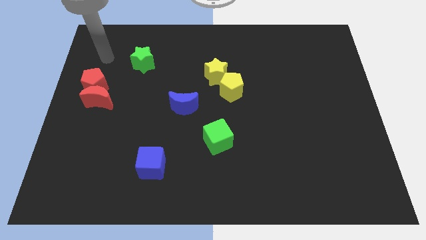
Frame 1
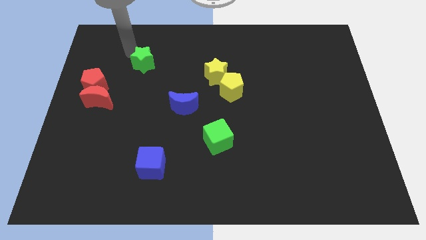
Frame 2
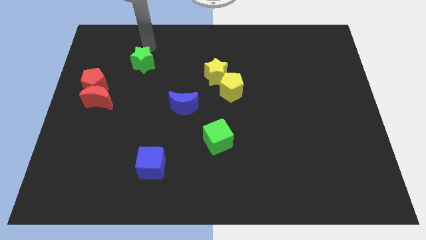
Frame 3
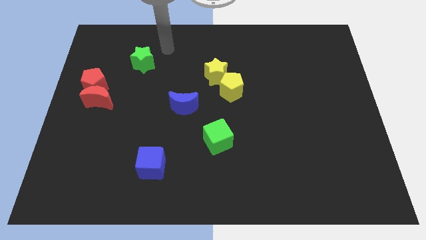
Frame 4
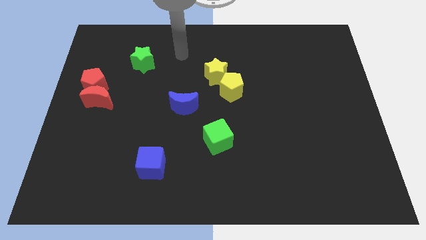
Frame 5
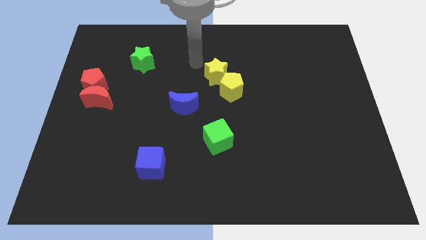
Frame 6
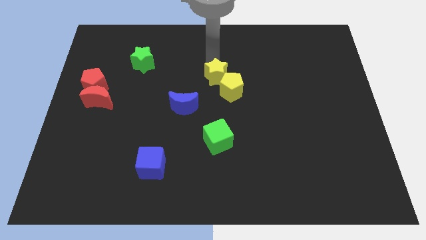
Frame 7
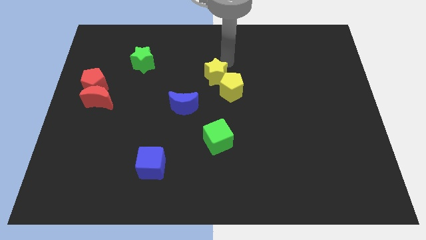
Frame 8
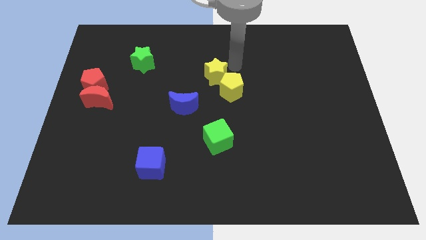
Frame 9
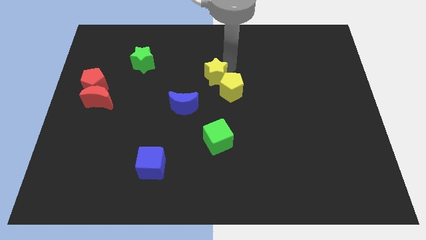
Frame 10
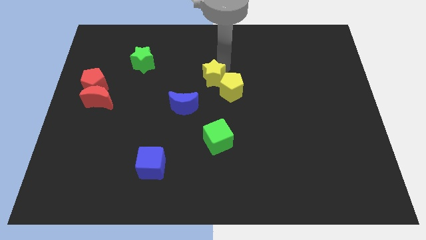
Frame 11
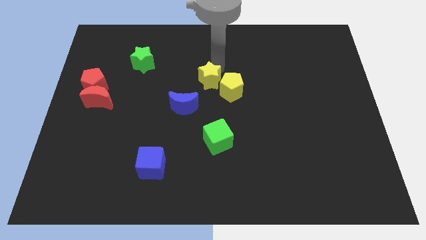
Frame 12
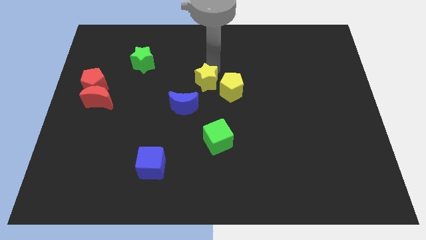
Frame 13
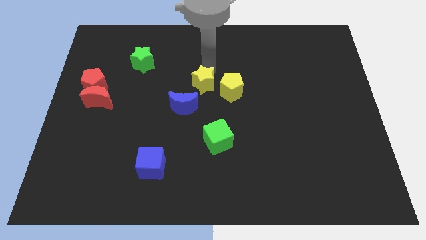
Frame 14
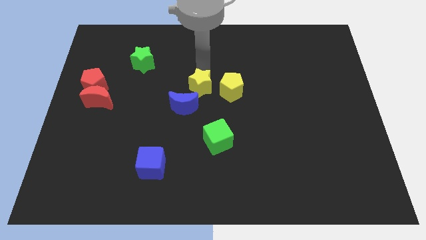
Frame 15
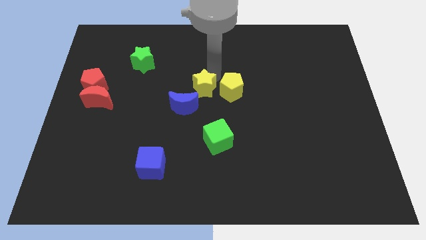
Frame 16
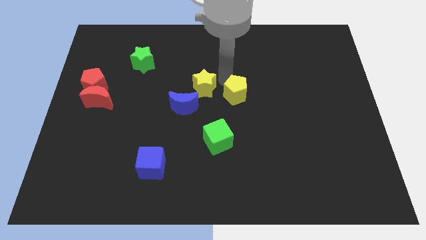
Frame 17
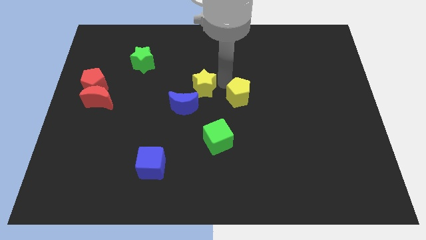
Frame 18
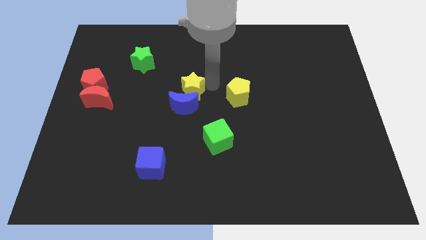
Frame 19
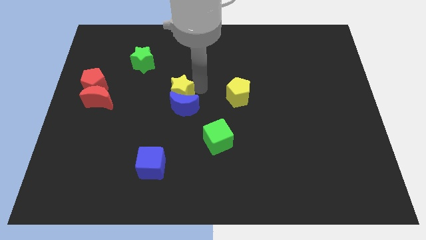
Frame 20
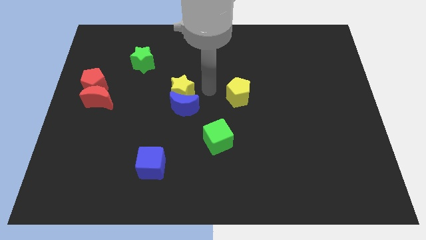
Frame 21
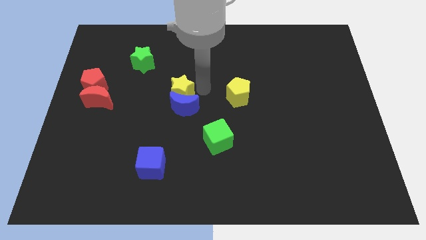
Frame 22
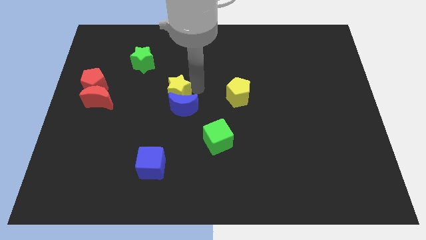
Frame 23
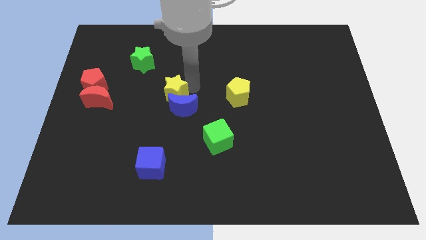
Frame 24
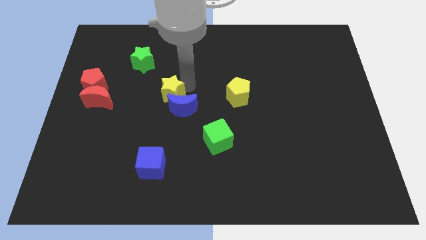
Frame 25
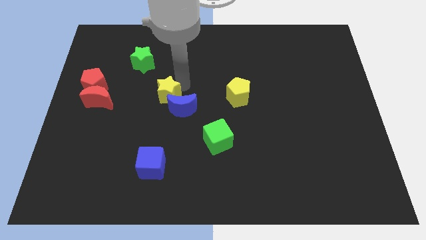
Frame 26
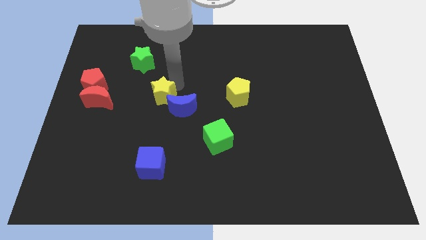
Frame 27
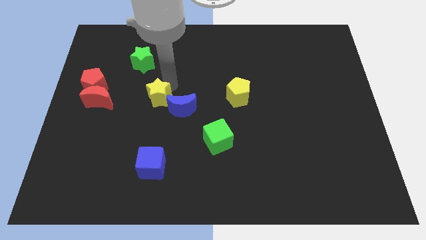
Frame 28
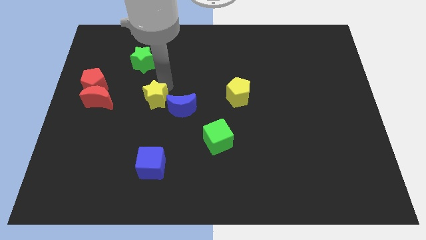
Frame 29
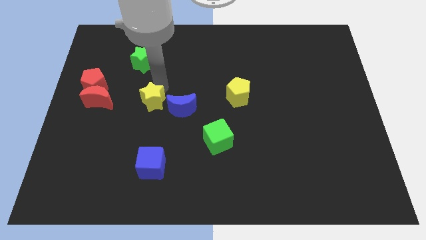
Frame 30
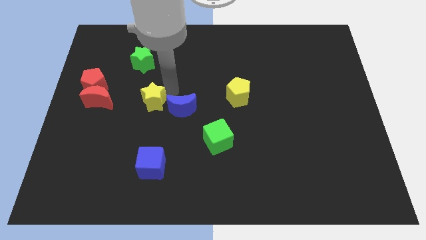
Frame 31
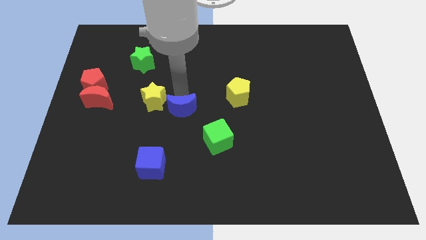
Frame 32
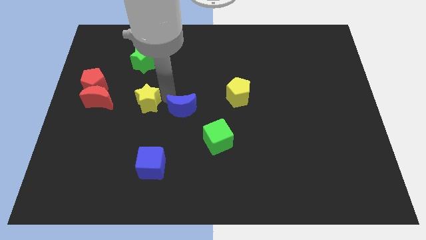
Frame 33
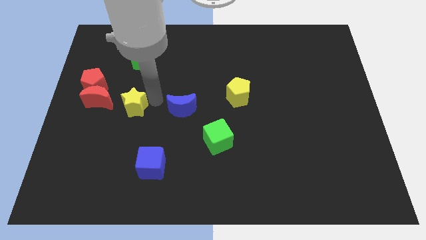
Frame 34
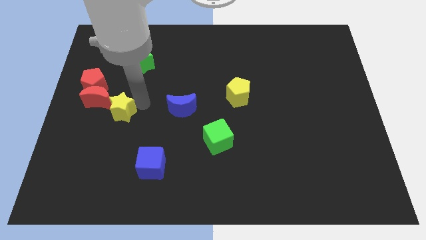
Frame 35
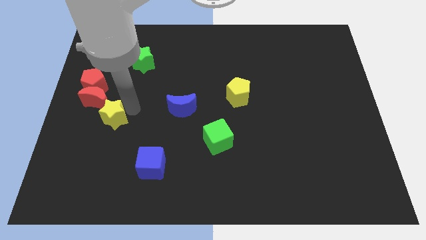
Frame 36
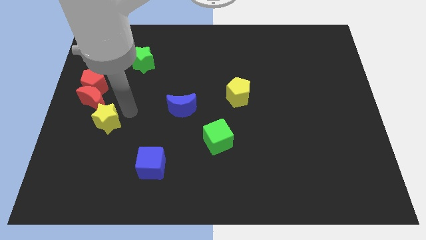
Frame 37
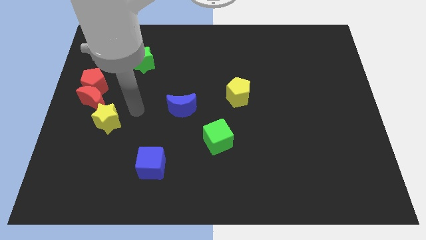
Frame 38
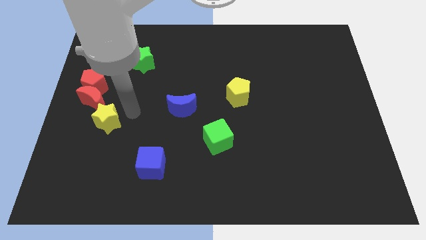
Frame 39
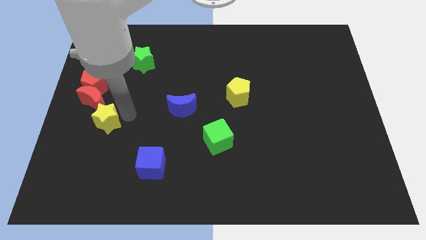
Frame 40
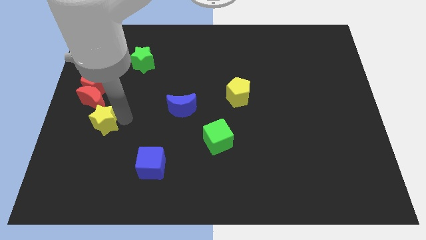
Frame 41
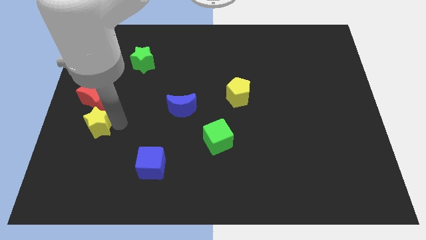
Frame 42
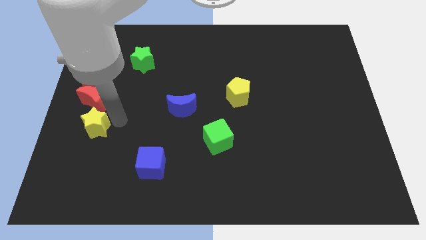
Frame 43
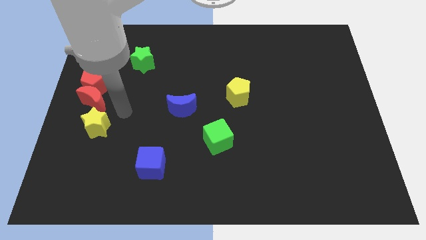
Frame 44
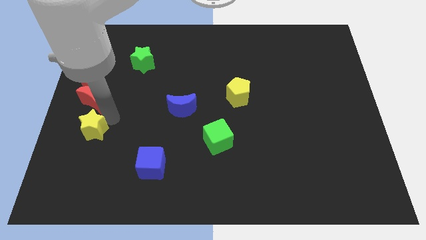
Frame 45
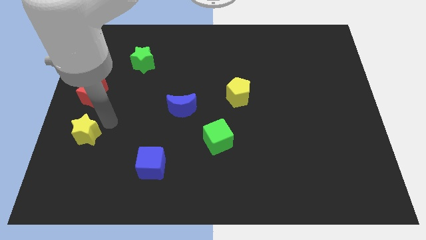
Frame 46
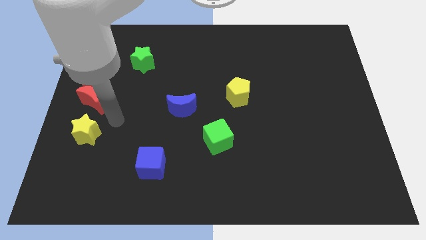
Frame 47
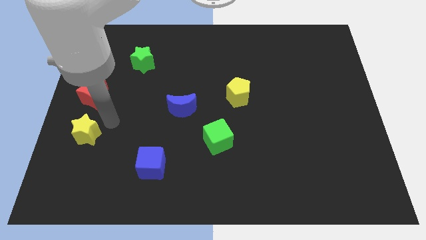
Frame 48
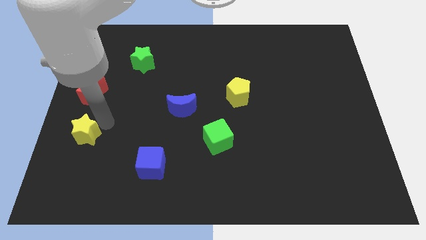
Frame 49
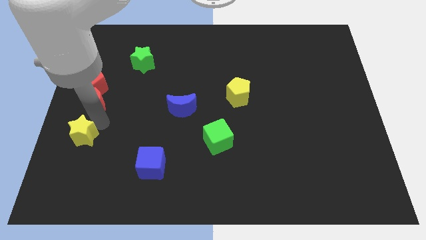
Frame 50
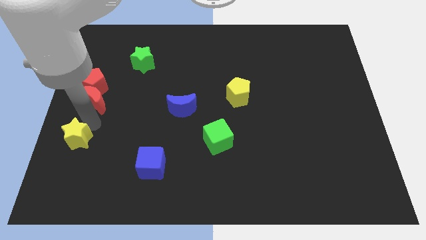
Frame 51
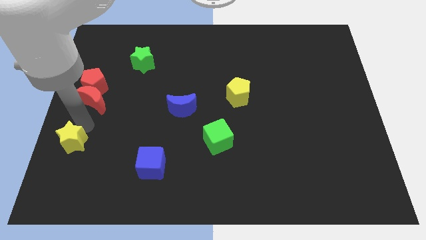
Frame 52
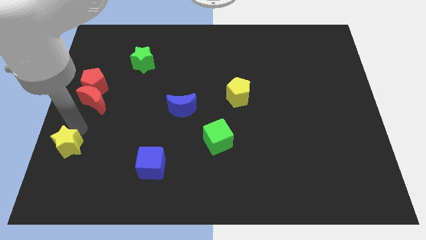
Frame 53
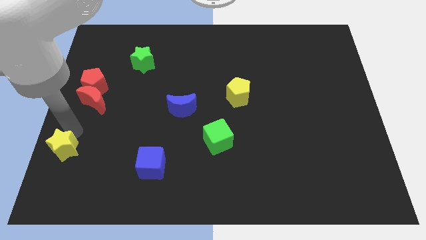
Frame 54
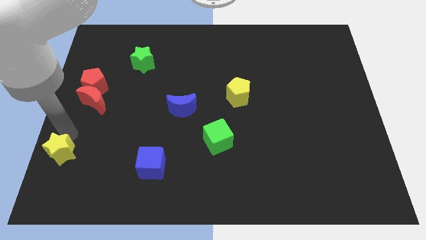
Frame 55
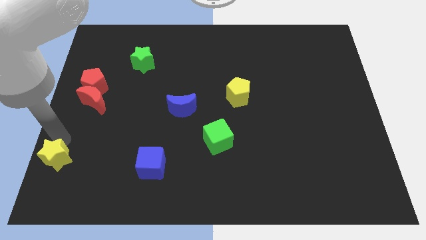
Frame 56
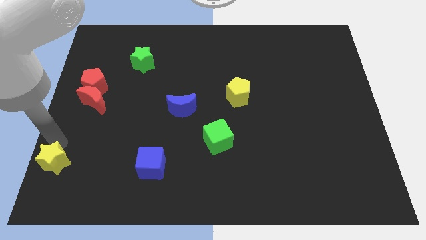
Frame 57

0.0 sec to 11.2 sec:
move the yellow star to the lower left corner

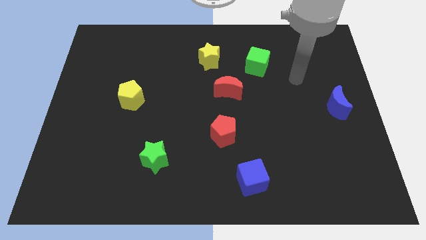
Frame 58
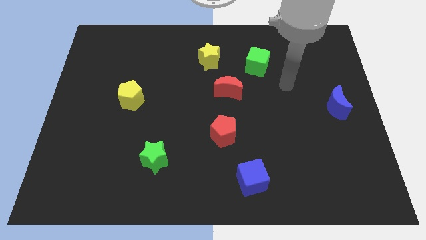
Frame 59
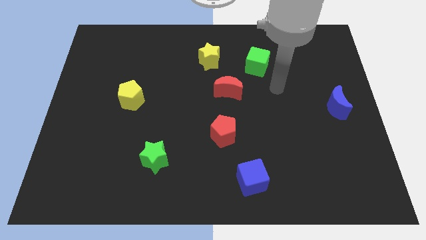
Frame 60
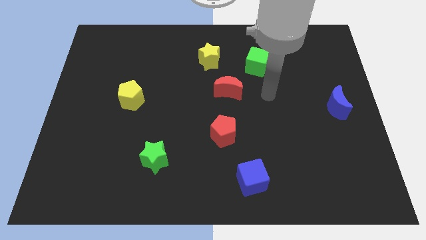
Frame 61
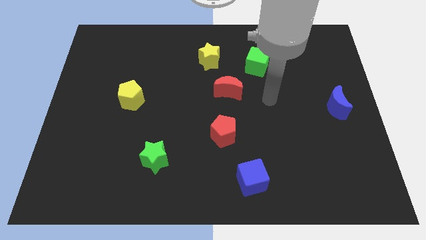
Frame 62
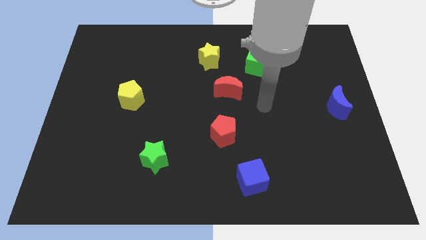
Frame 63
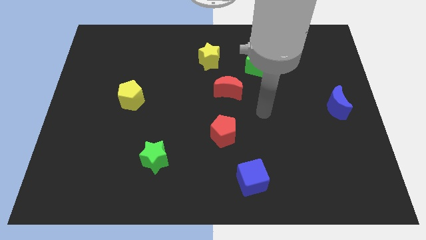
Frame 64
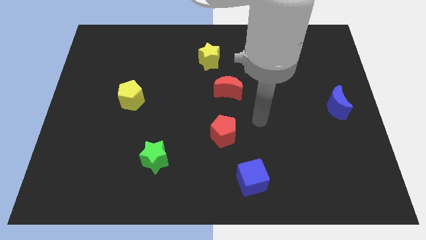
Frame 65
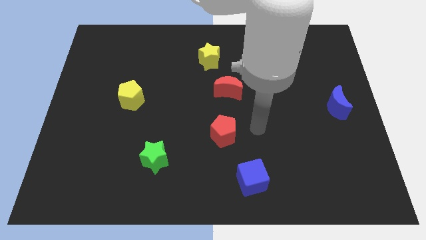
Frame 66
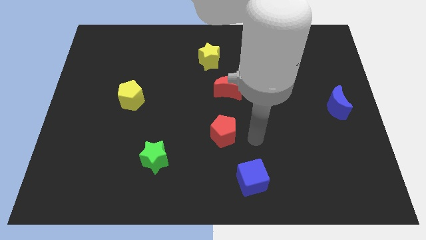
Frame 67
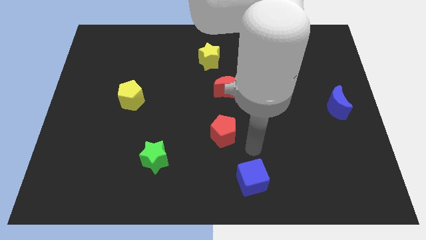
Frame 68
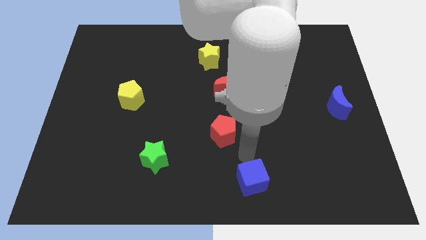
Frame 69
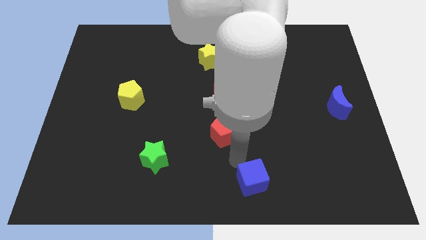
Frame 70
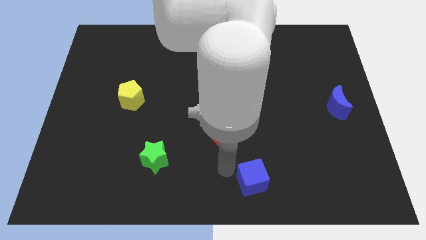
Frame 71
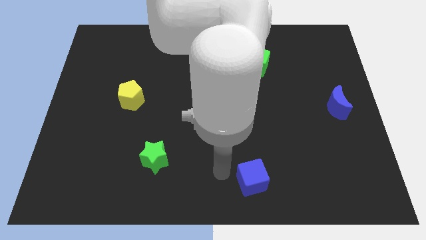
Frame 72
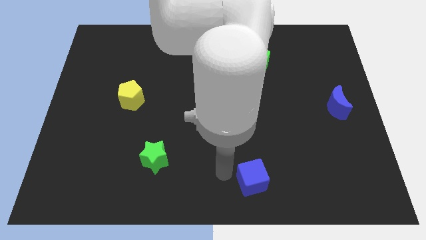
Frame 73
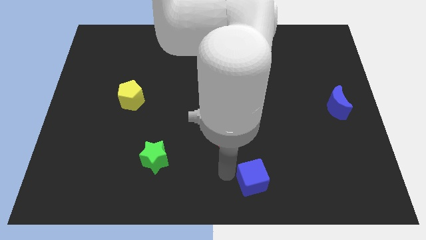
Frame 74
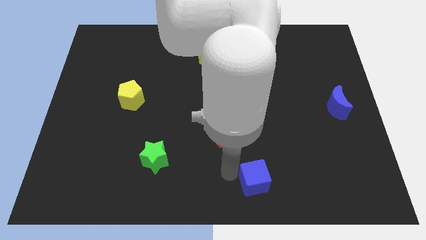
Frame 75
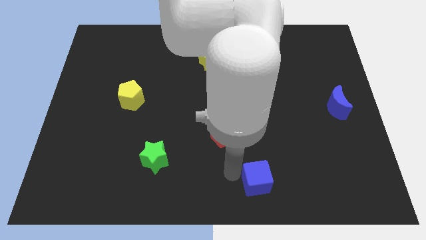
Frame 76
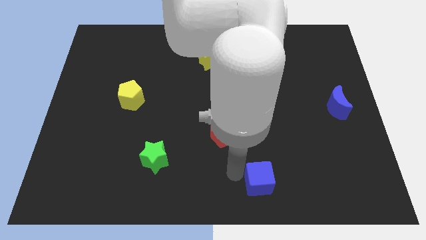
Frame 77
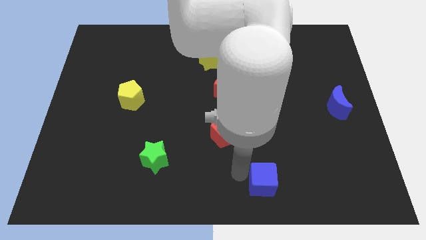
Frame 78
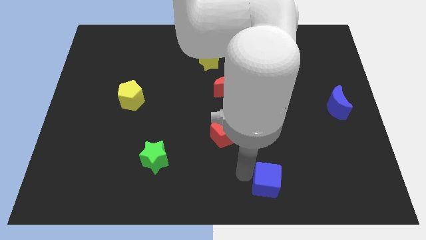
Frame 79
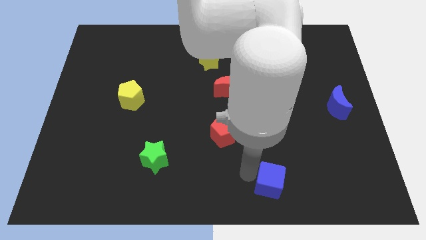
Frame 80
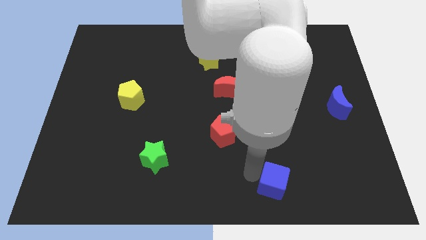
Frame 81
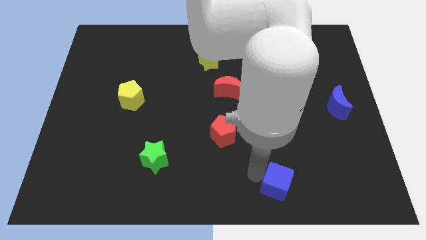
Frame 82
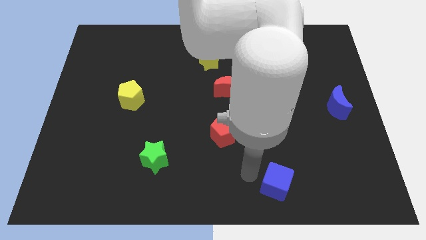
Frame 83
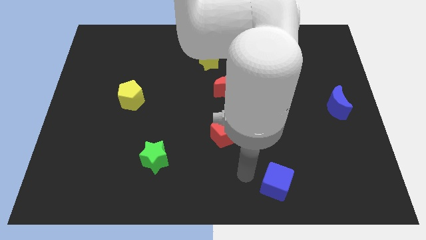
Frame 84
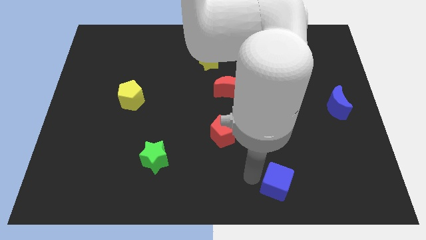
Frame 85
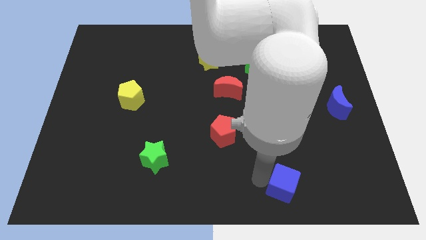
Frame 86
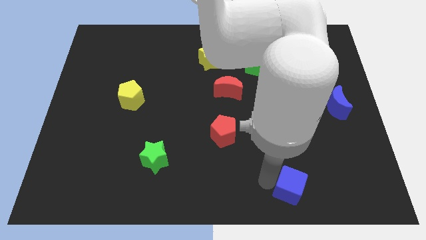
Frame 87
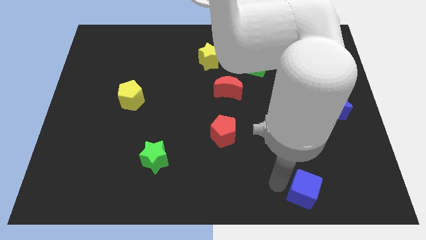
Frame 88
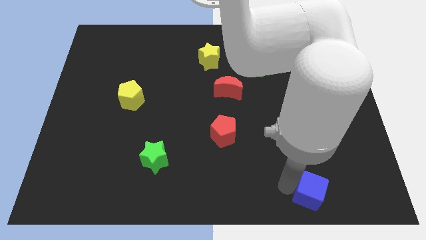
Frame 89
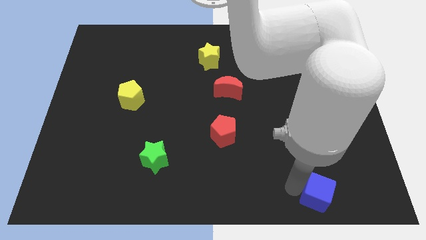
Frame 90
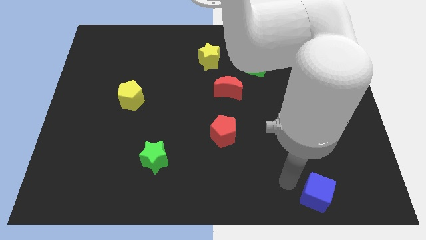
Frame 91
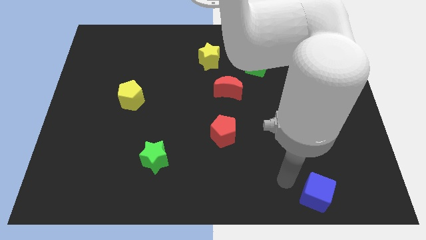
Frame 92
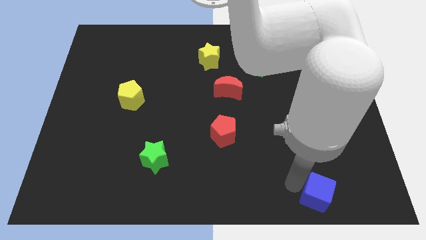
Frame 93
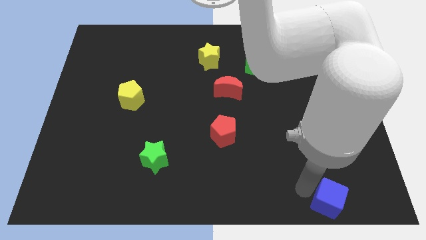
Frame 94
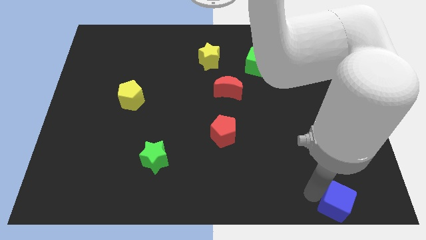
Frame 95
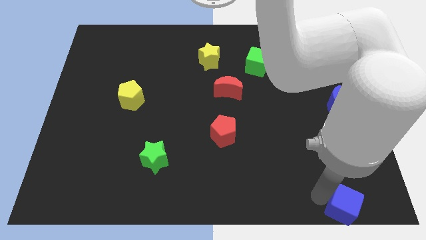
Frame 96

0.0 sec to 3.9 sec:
push the blue cube to the bottom right corner
